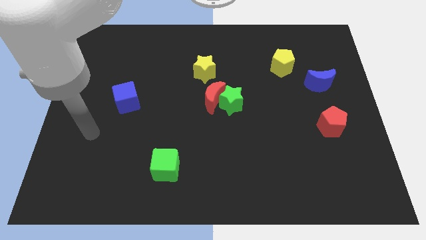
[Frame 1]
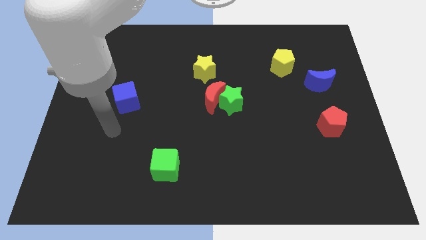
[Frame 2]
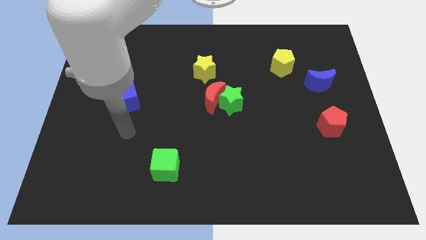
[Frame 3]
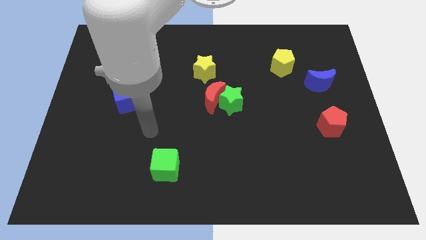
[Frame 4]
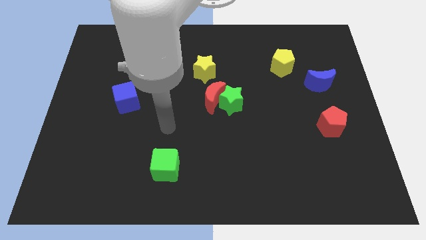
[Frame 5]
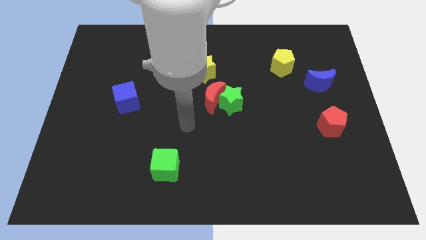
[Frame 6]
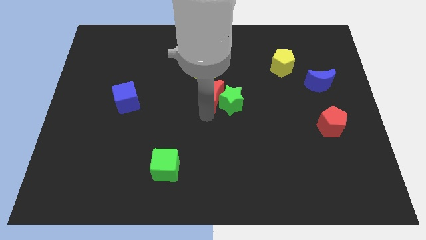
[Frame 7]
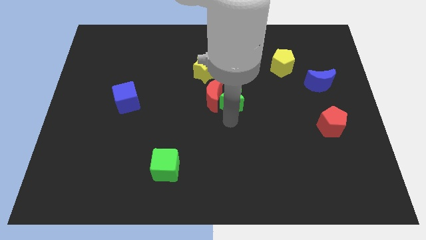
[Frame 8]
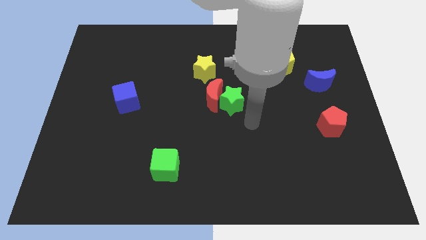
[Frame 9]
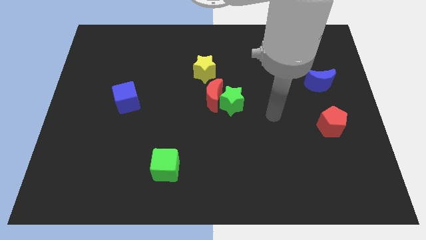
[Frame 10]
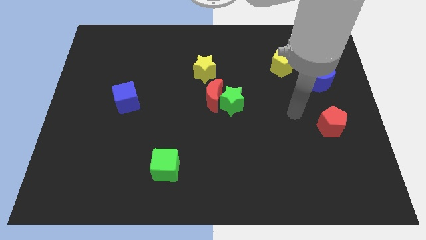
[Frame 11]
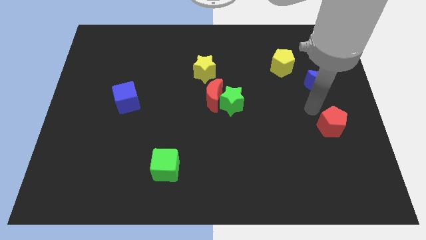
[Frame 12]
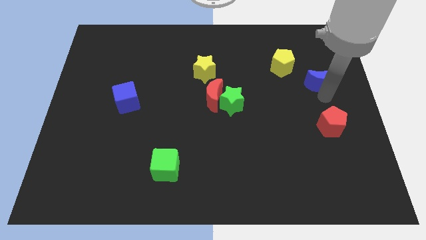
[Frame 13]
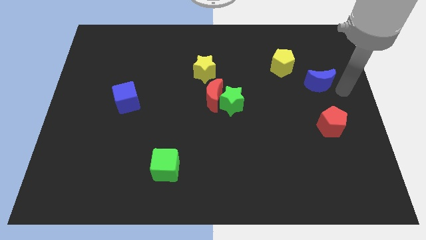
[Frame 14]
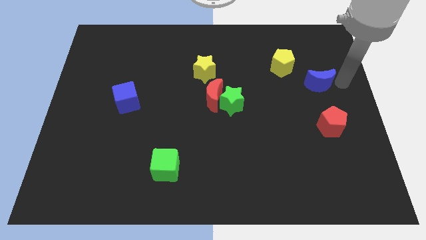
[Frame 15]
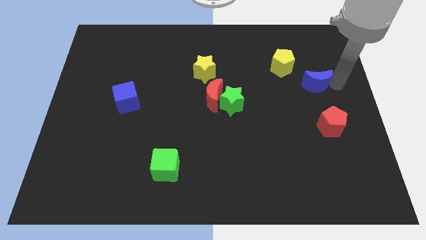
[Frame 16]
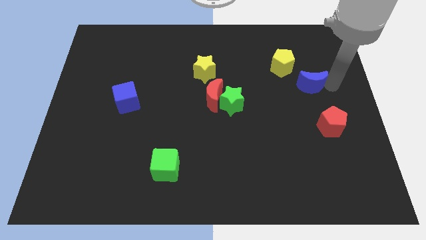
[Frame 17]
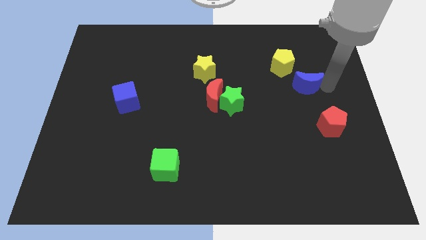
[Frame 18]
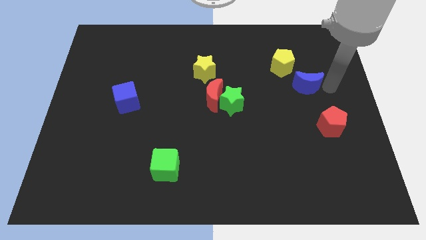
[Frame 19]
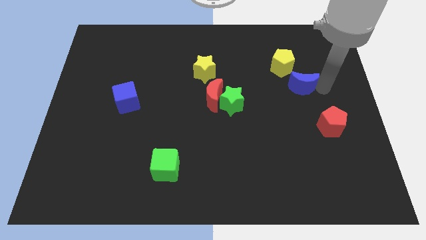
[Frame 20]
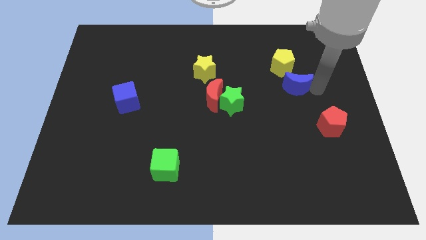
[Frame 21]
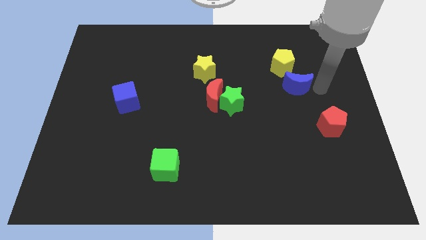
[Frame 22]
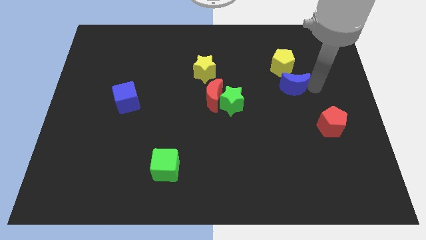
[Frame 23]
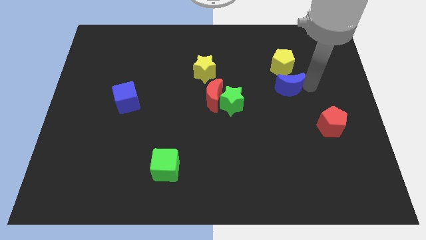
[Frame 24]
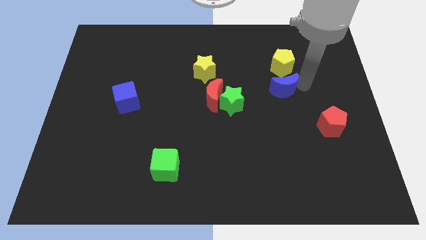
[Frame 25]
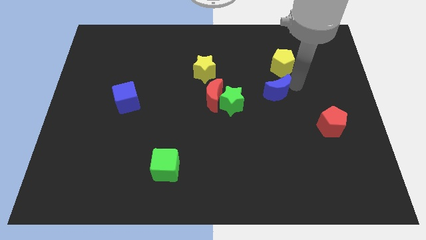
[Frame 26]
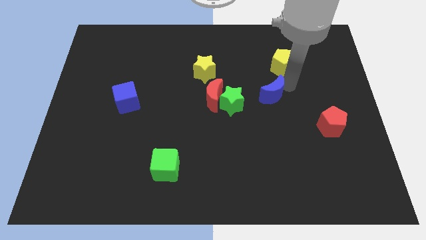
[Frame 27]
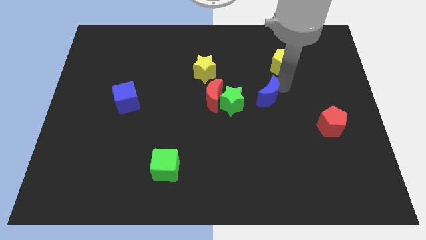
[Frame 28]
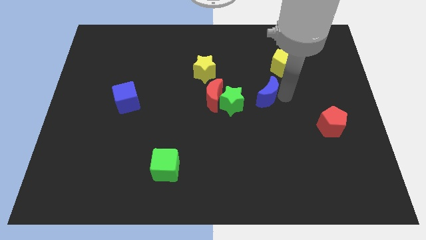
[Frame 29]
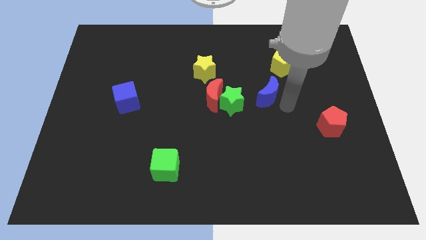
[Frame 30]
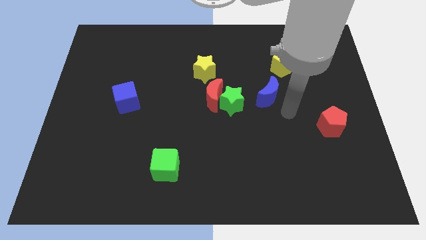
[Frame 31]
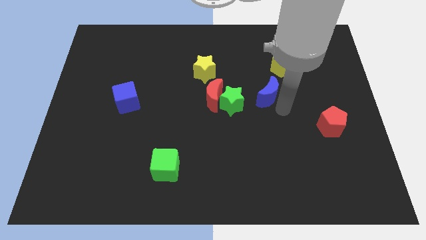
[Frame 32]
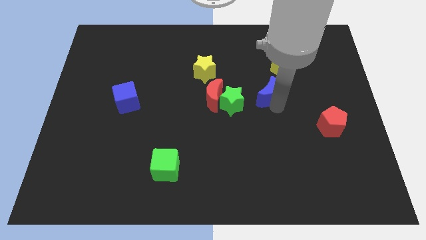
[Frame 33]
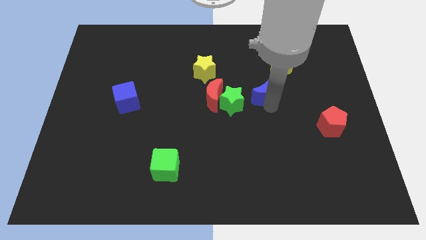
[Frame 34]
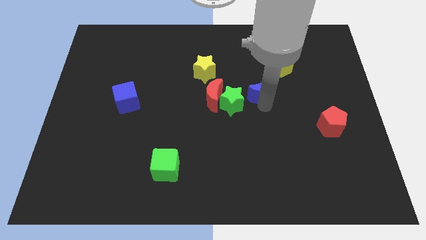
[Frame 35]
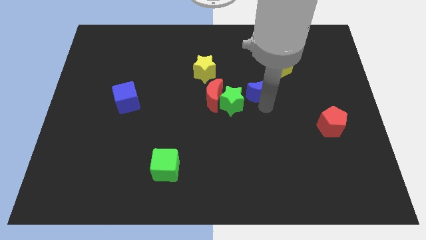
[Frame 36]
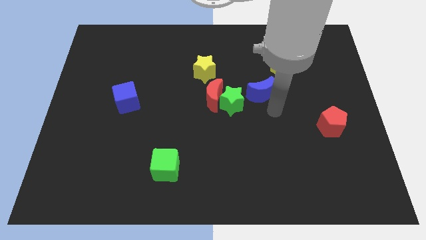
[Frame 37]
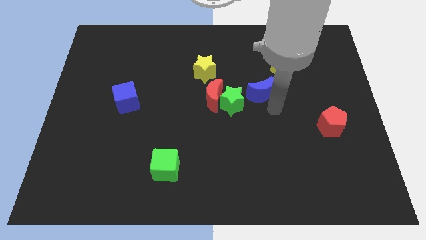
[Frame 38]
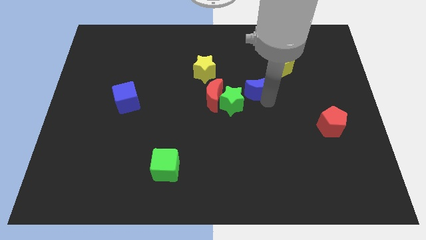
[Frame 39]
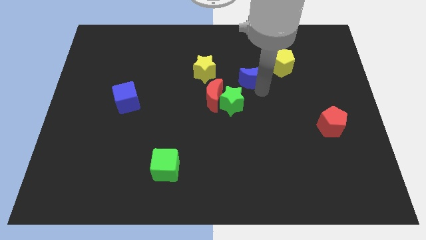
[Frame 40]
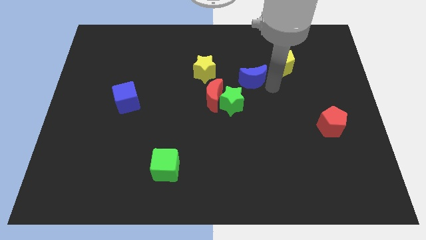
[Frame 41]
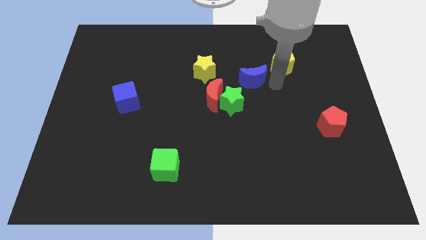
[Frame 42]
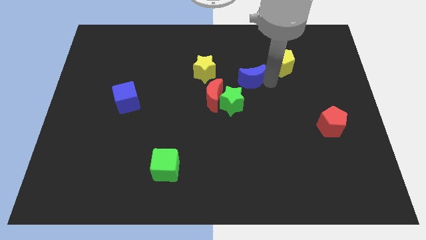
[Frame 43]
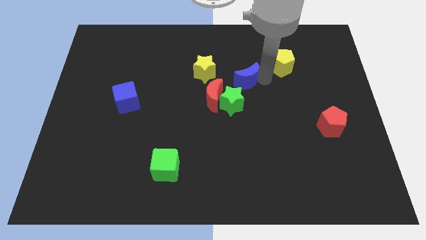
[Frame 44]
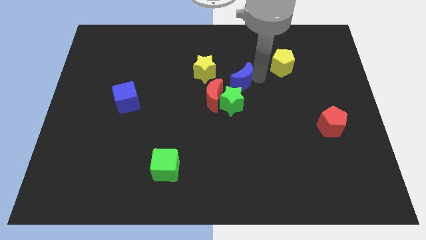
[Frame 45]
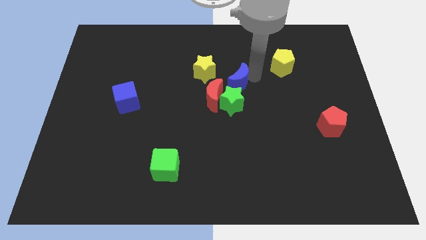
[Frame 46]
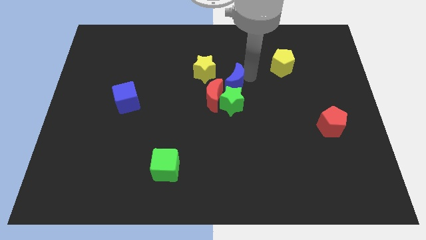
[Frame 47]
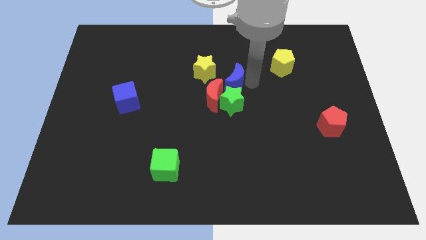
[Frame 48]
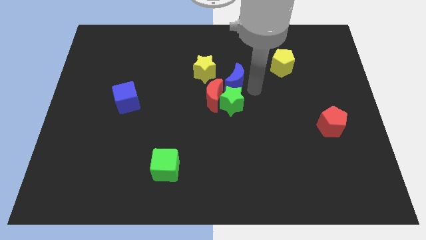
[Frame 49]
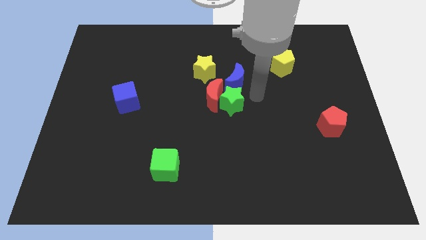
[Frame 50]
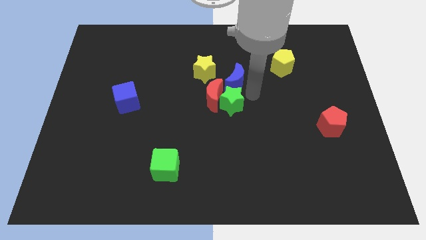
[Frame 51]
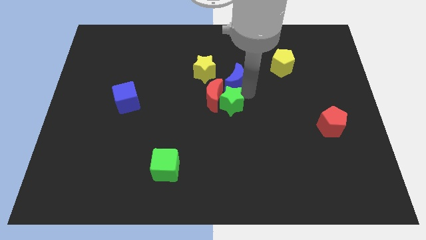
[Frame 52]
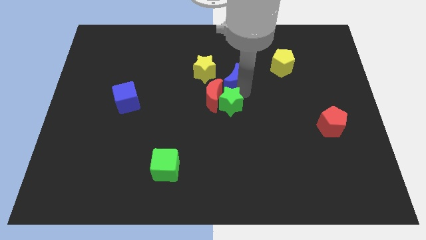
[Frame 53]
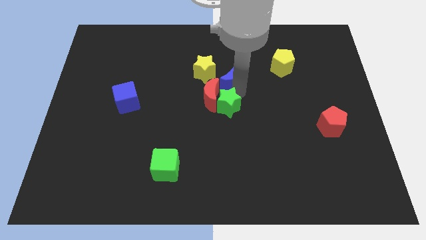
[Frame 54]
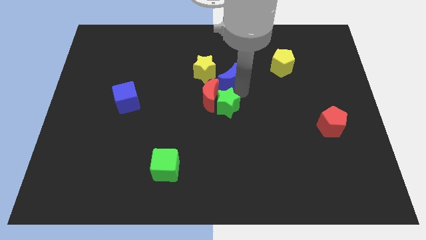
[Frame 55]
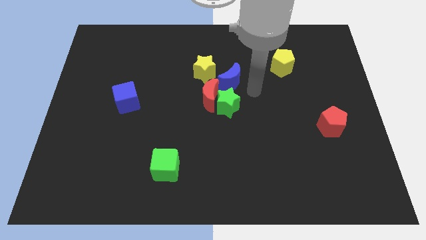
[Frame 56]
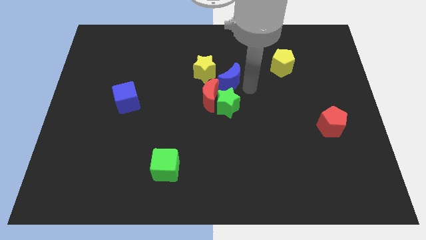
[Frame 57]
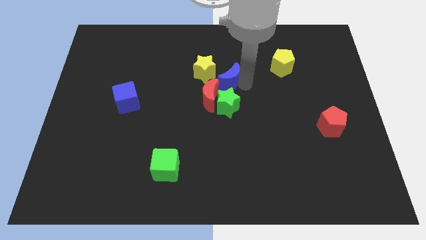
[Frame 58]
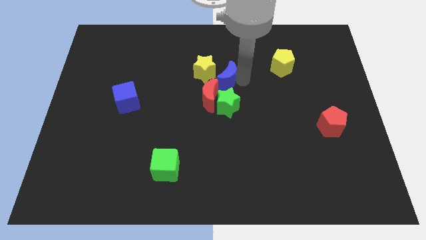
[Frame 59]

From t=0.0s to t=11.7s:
slide the blue moon close to the yellow star

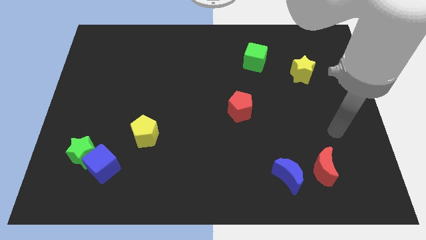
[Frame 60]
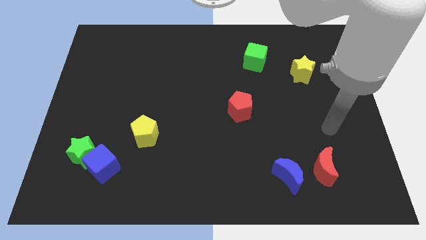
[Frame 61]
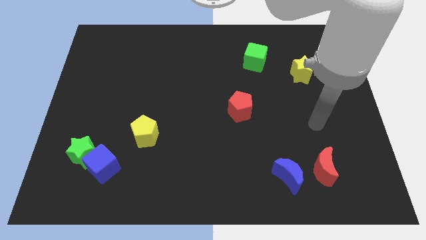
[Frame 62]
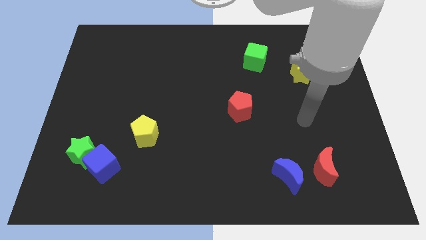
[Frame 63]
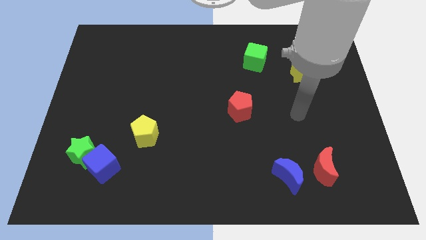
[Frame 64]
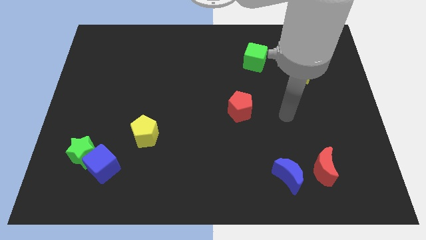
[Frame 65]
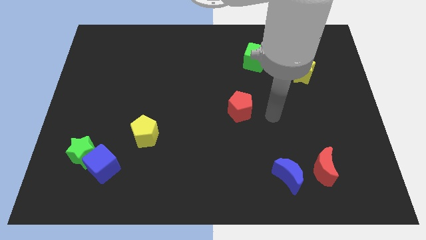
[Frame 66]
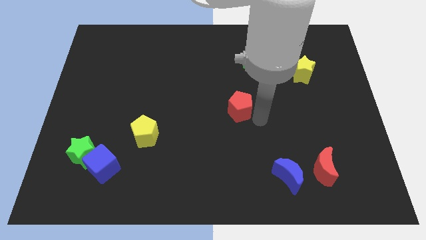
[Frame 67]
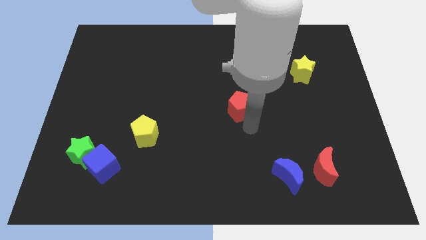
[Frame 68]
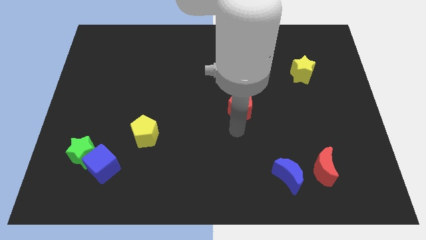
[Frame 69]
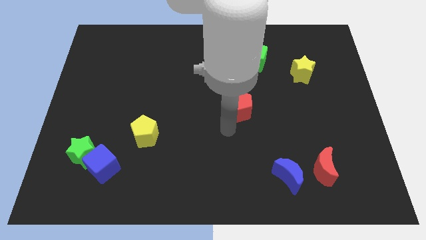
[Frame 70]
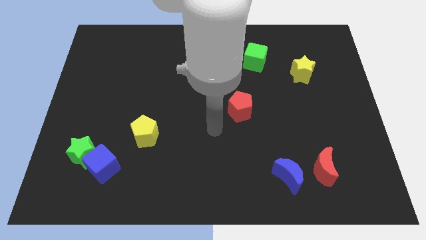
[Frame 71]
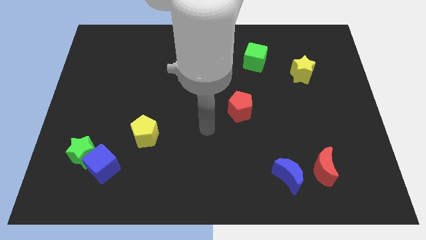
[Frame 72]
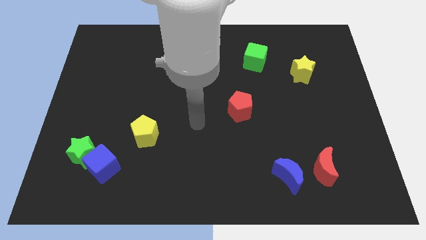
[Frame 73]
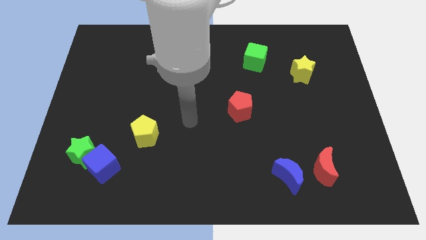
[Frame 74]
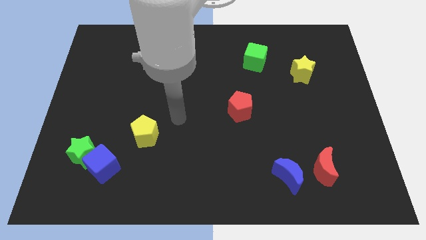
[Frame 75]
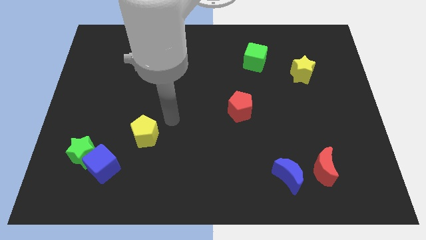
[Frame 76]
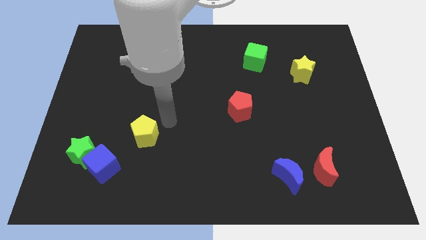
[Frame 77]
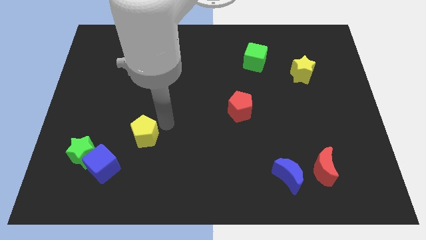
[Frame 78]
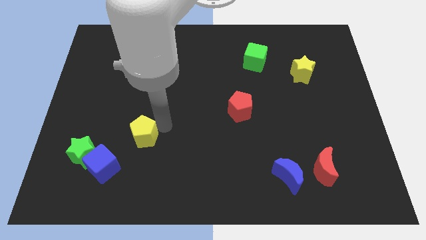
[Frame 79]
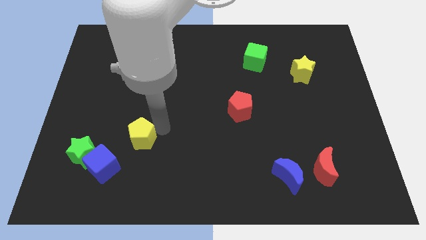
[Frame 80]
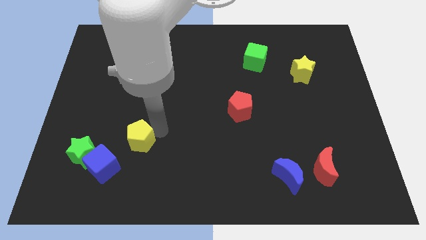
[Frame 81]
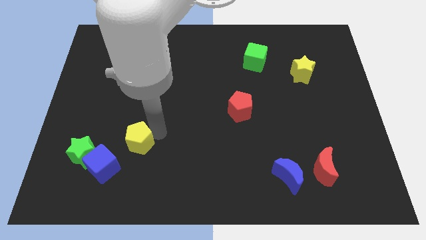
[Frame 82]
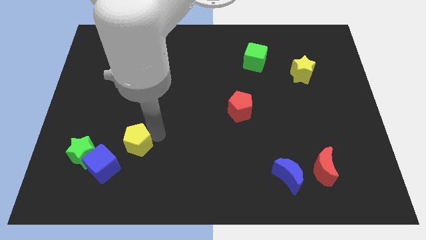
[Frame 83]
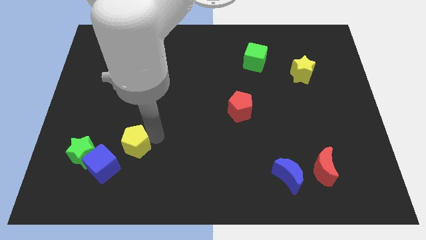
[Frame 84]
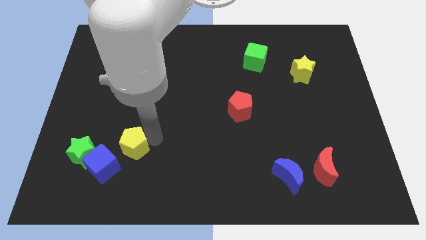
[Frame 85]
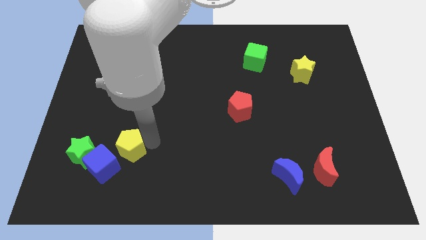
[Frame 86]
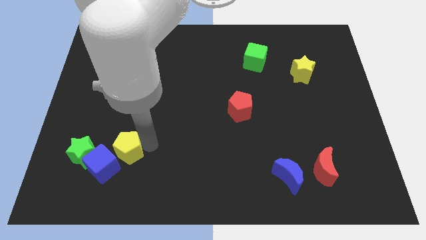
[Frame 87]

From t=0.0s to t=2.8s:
put the yellow pentagon to the blue cube
